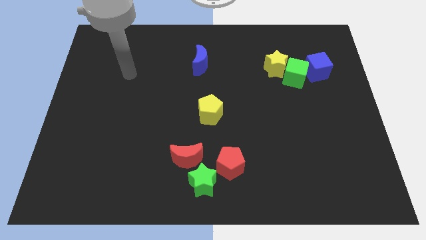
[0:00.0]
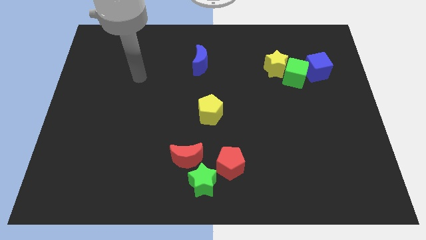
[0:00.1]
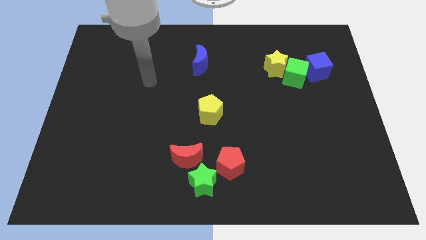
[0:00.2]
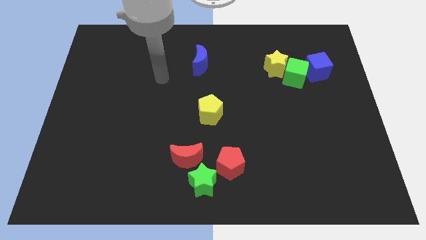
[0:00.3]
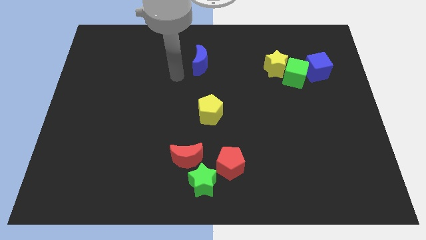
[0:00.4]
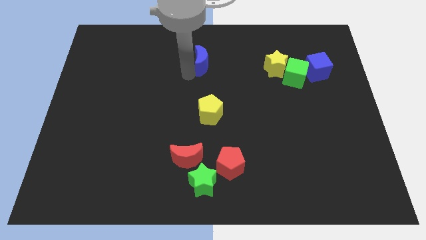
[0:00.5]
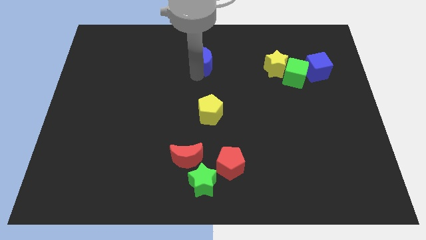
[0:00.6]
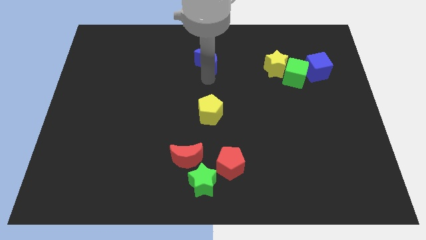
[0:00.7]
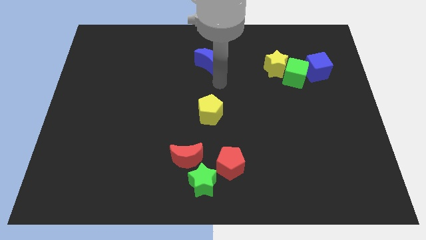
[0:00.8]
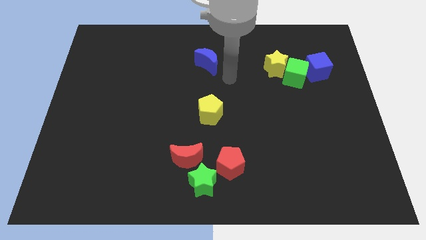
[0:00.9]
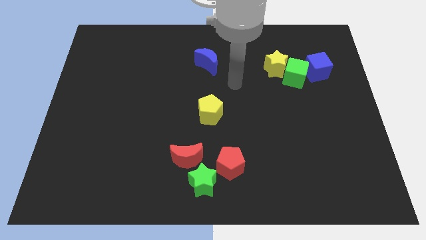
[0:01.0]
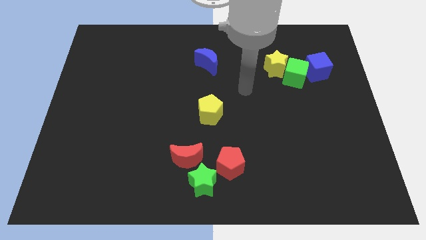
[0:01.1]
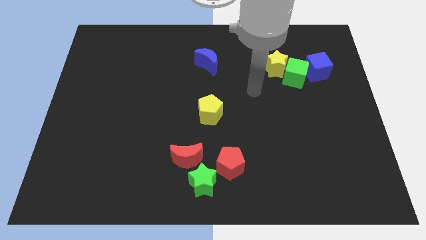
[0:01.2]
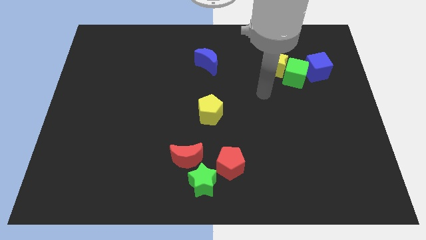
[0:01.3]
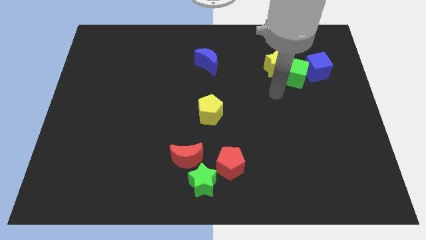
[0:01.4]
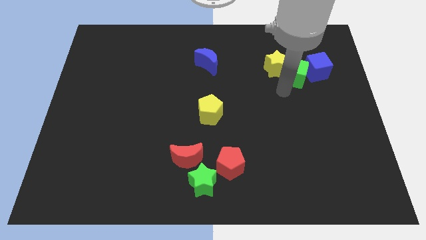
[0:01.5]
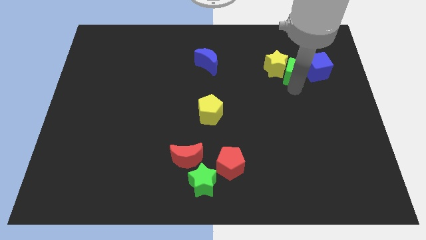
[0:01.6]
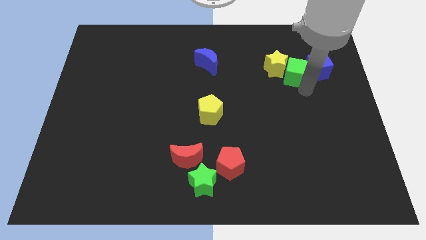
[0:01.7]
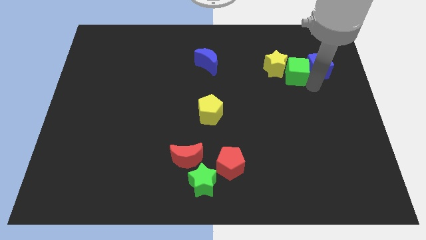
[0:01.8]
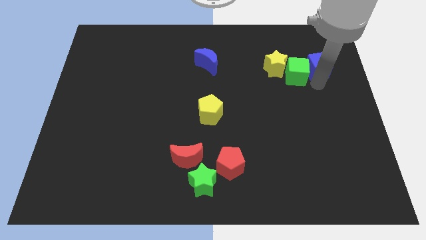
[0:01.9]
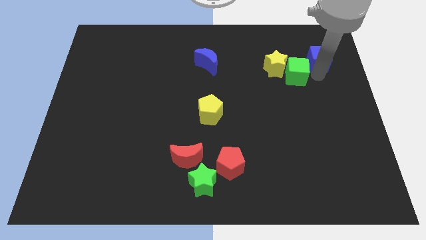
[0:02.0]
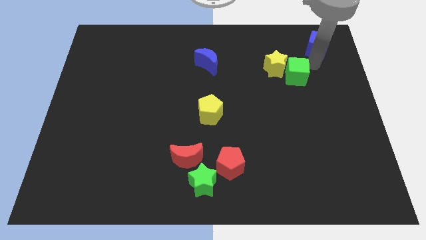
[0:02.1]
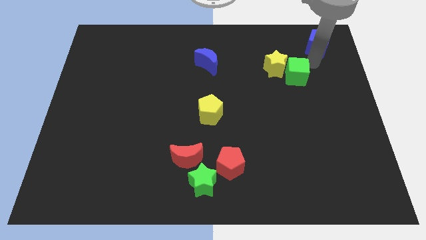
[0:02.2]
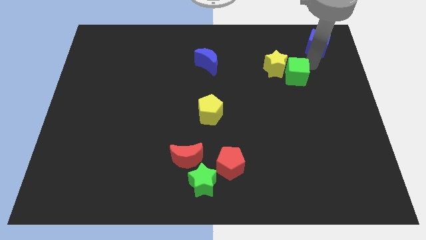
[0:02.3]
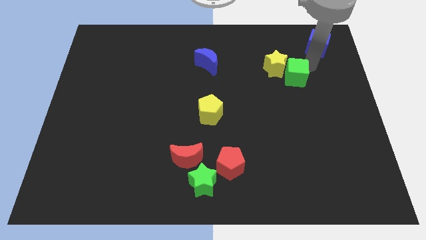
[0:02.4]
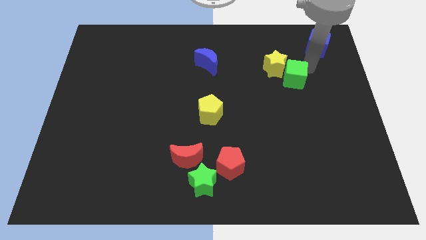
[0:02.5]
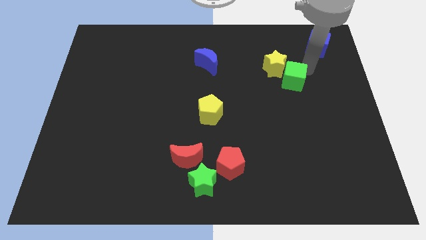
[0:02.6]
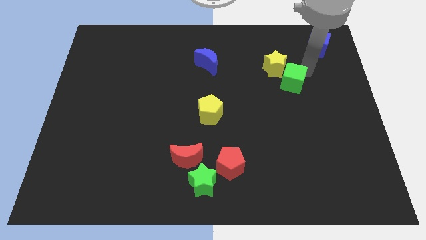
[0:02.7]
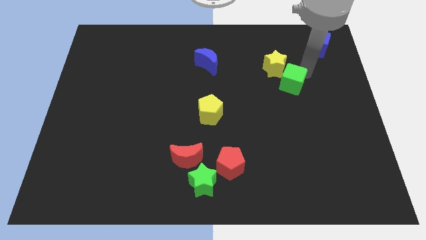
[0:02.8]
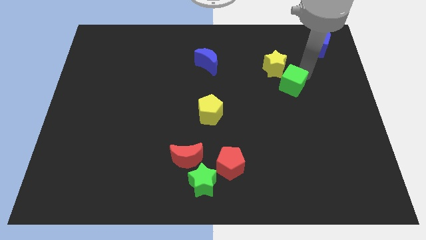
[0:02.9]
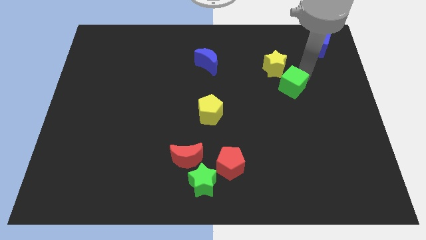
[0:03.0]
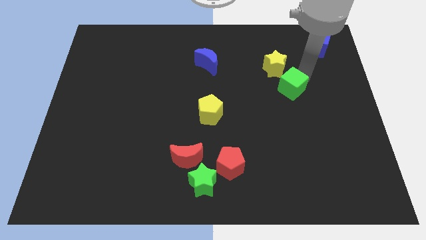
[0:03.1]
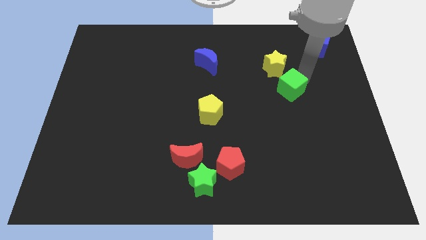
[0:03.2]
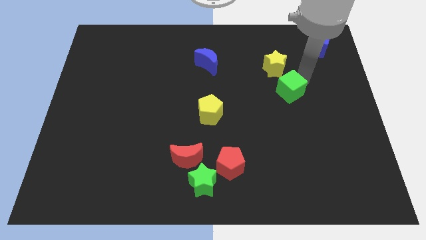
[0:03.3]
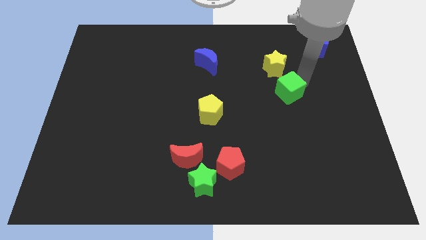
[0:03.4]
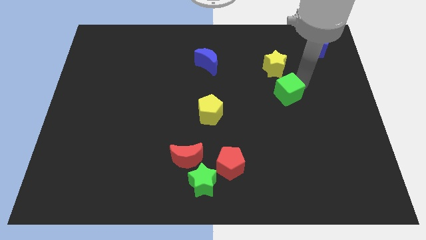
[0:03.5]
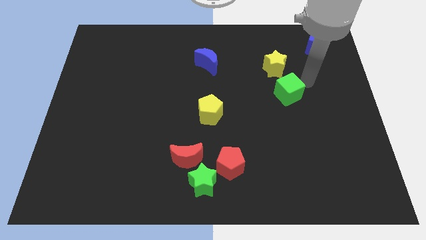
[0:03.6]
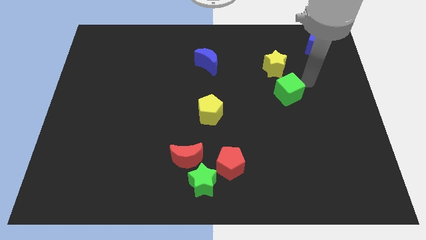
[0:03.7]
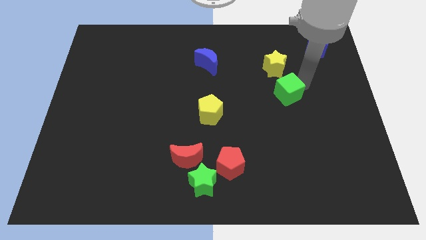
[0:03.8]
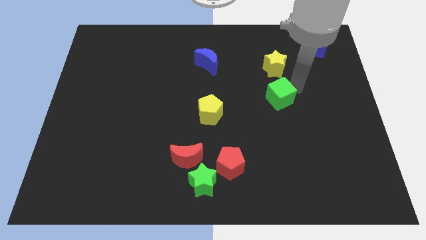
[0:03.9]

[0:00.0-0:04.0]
move the green cube diagonally downwards and to the left slightly

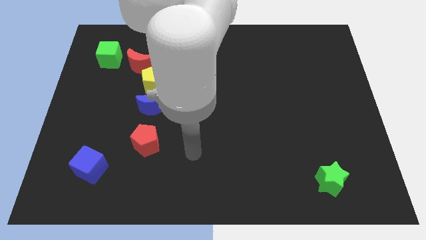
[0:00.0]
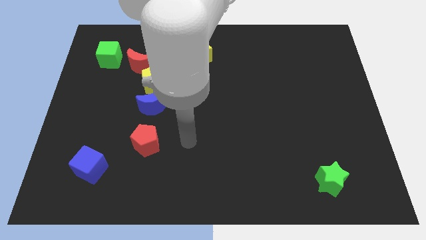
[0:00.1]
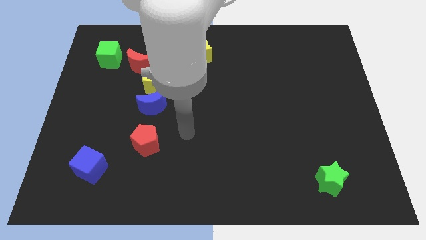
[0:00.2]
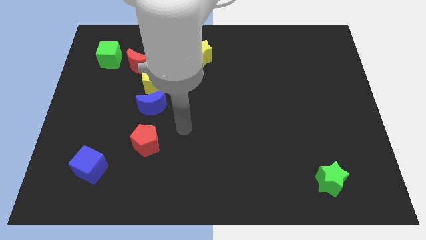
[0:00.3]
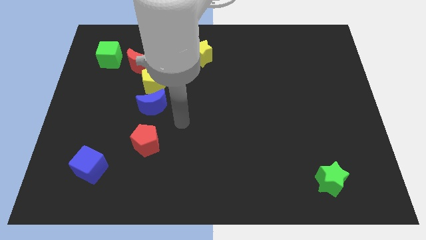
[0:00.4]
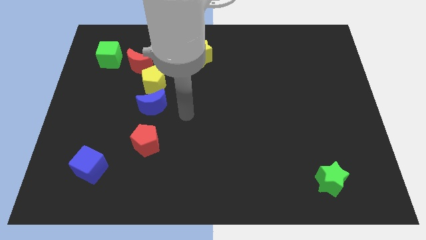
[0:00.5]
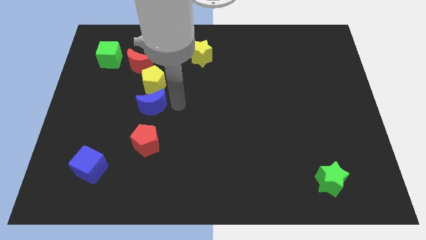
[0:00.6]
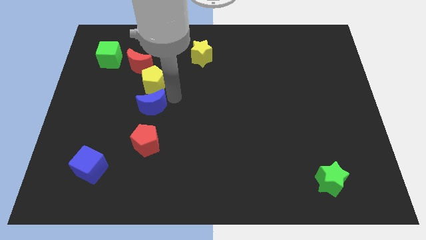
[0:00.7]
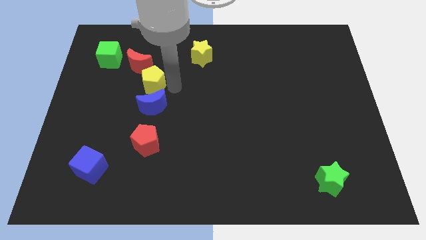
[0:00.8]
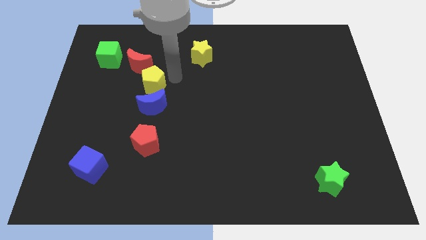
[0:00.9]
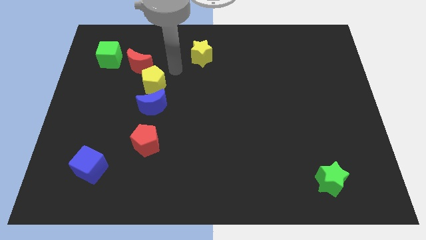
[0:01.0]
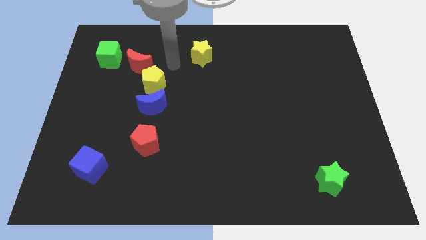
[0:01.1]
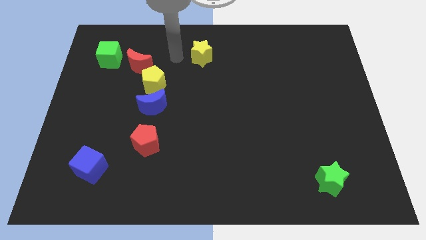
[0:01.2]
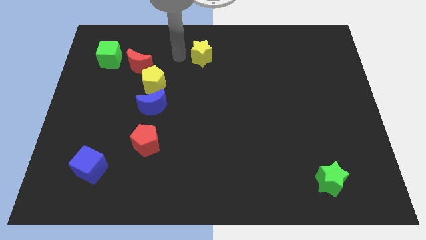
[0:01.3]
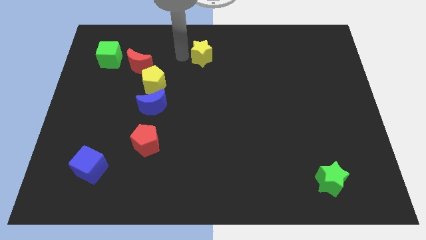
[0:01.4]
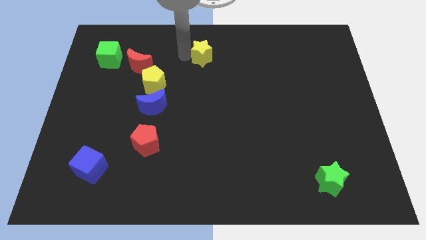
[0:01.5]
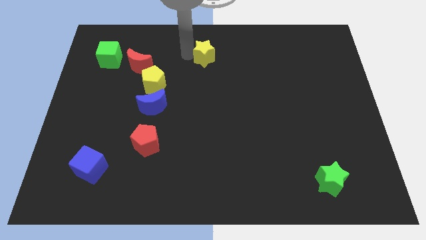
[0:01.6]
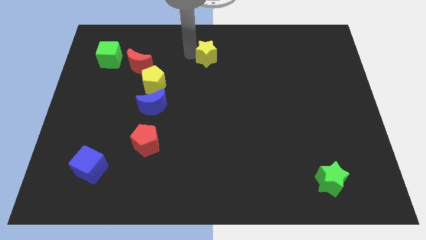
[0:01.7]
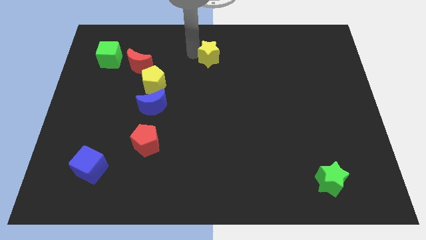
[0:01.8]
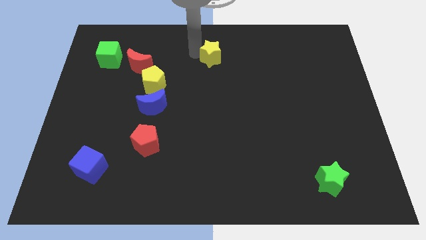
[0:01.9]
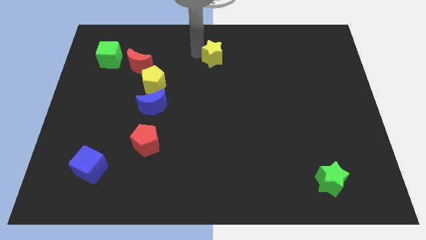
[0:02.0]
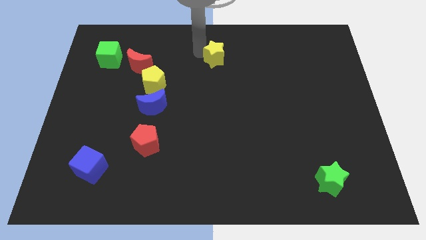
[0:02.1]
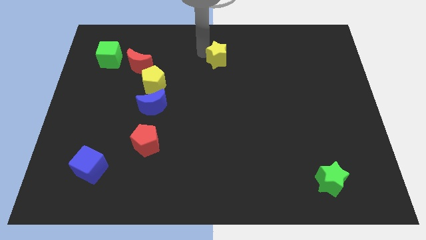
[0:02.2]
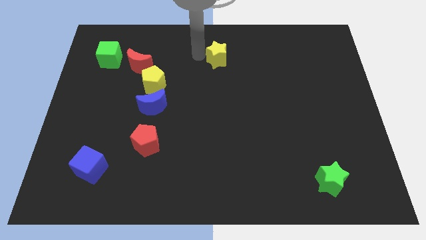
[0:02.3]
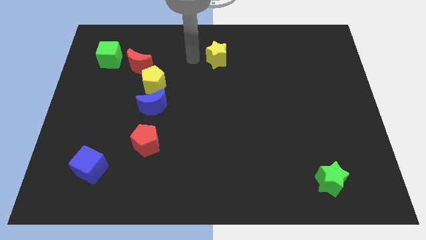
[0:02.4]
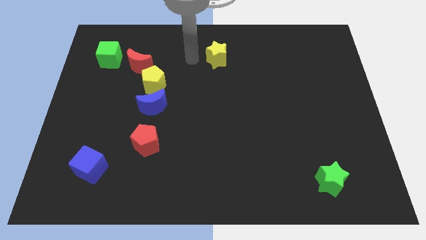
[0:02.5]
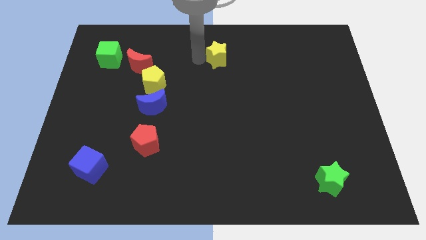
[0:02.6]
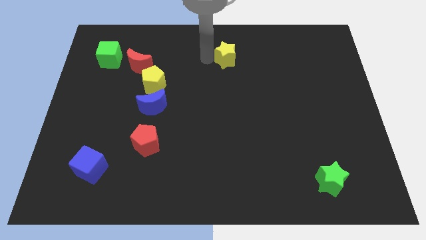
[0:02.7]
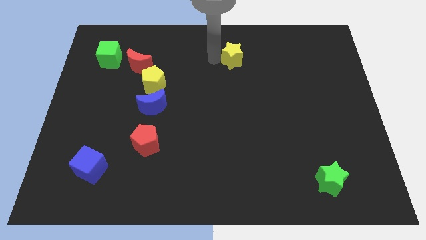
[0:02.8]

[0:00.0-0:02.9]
slightly push the yellow star right

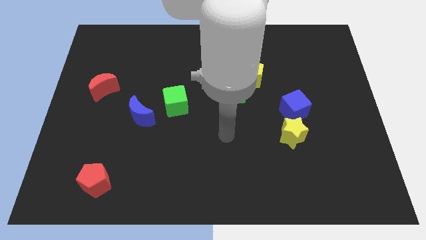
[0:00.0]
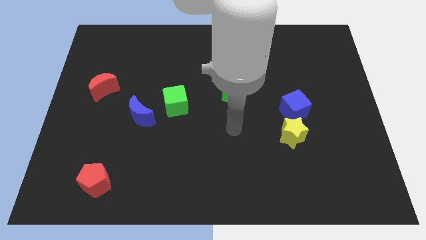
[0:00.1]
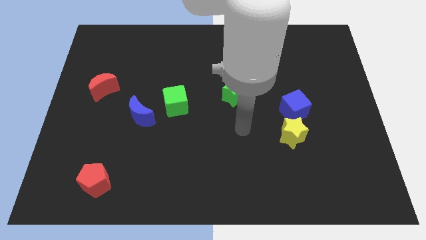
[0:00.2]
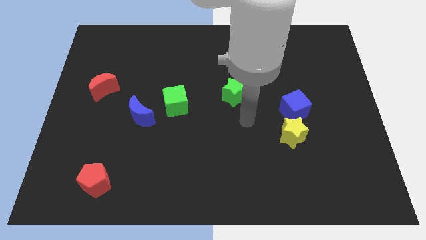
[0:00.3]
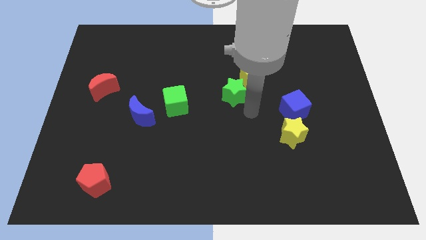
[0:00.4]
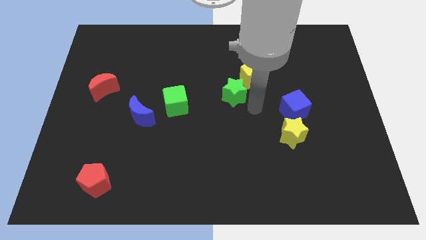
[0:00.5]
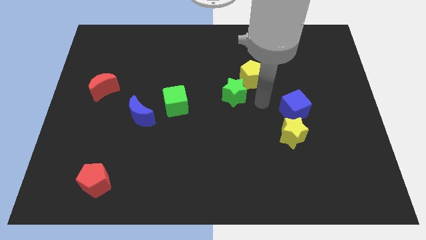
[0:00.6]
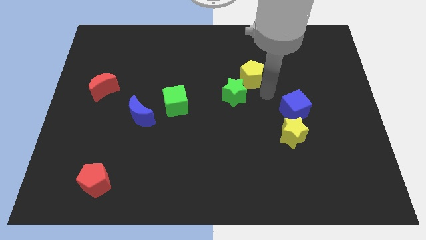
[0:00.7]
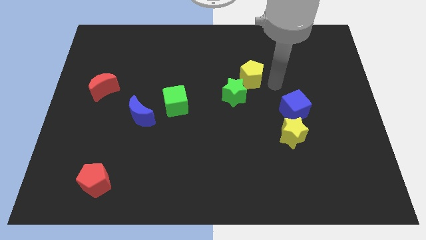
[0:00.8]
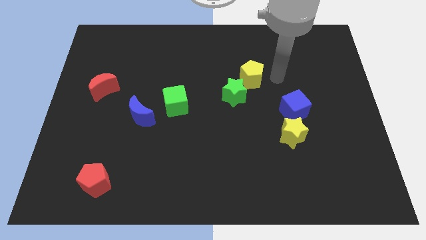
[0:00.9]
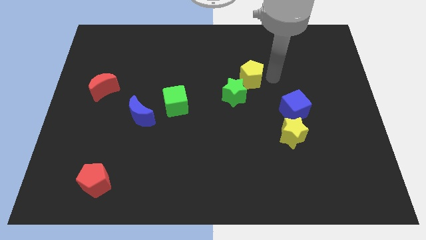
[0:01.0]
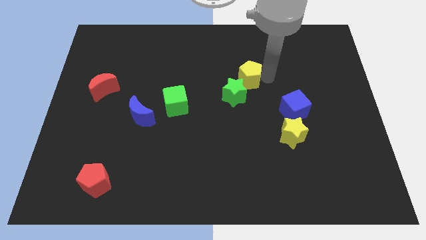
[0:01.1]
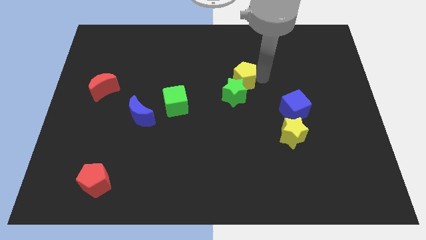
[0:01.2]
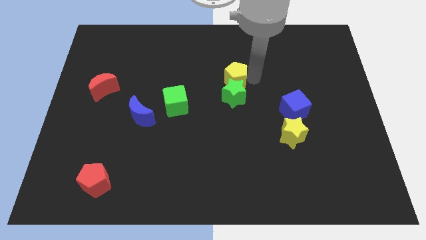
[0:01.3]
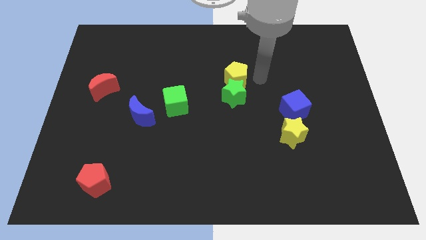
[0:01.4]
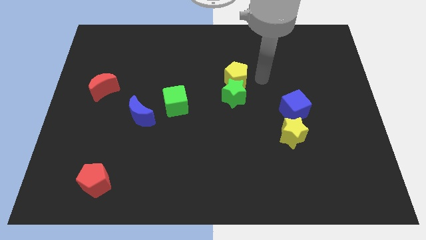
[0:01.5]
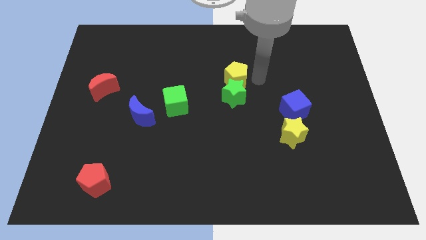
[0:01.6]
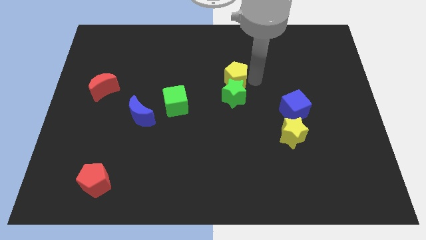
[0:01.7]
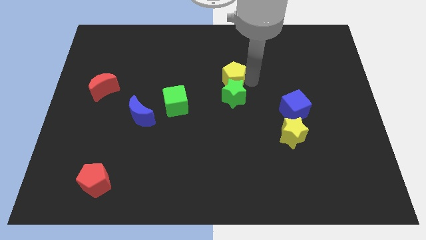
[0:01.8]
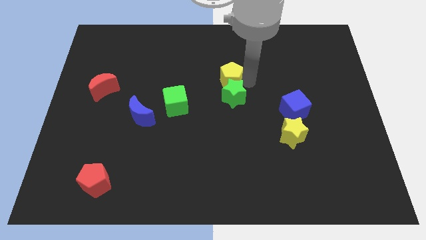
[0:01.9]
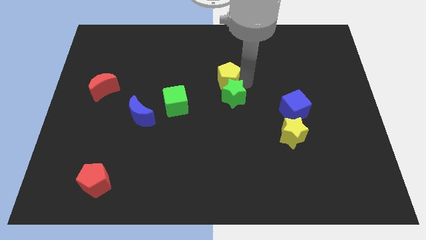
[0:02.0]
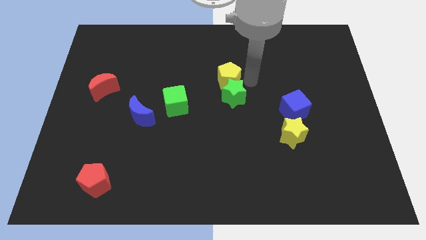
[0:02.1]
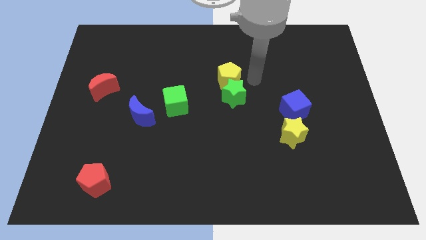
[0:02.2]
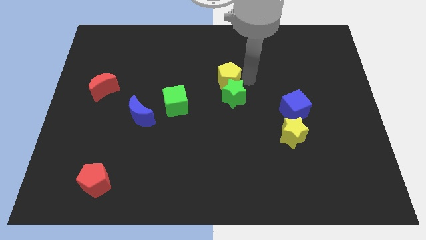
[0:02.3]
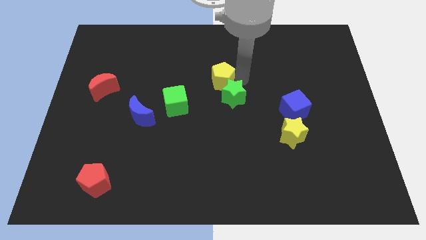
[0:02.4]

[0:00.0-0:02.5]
move the yellow pentagon left a little
